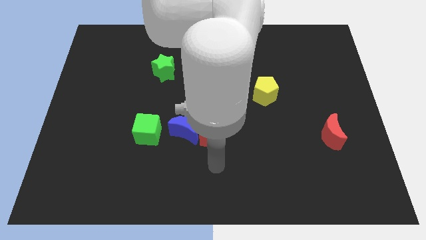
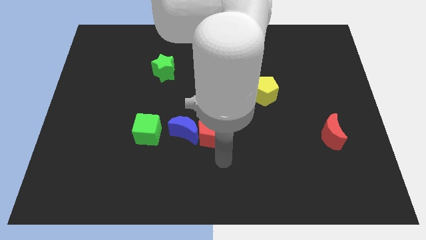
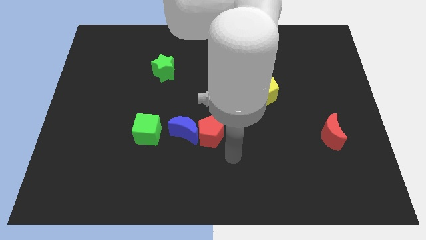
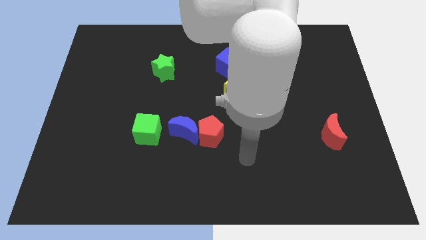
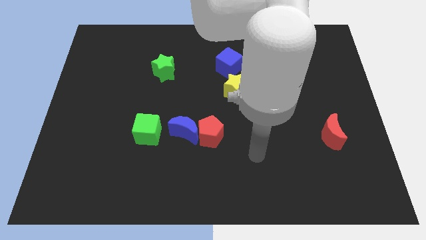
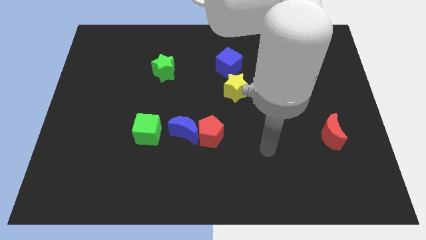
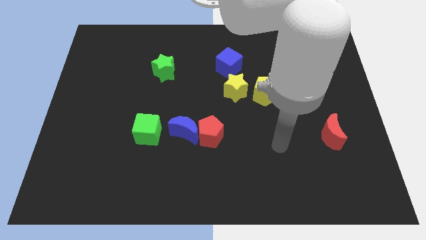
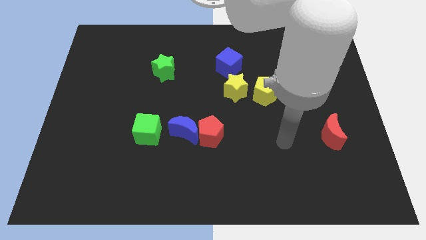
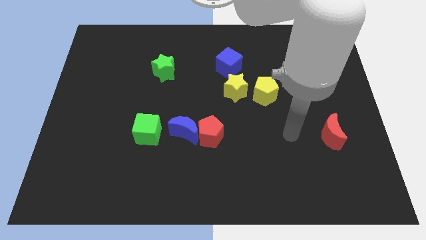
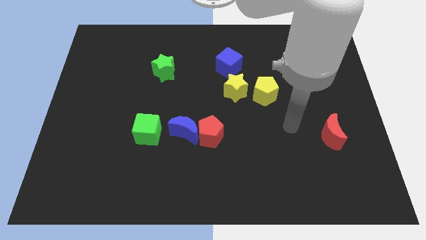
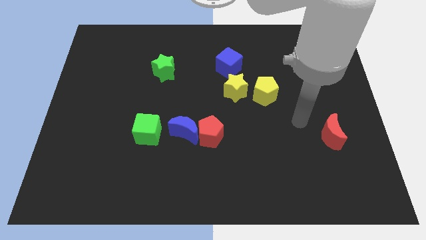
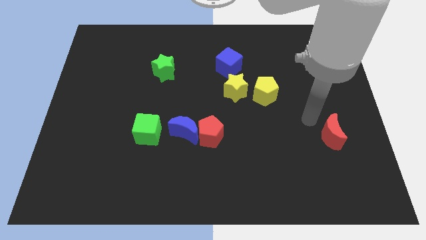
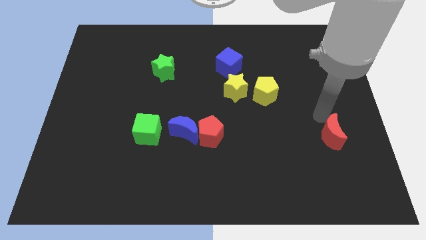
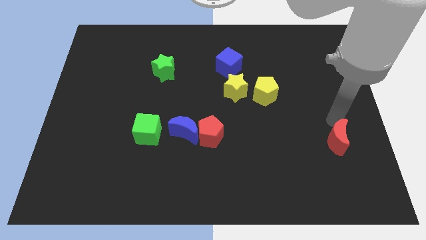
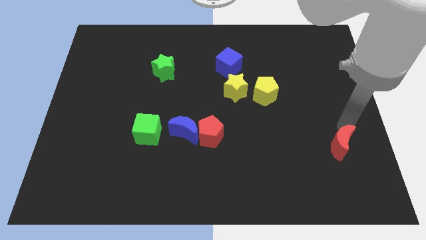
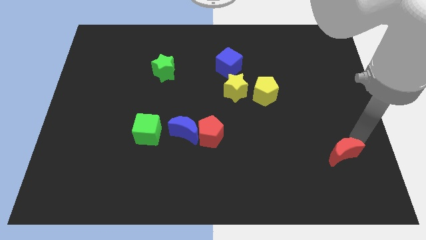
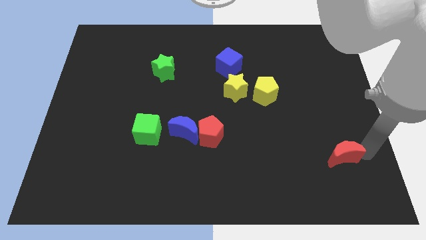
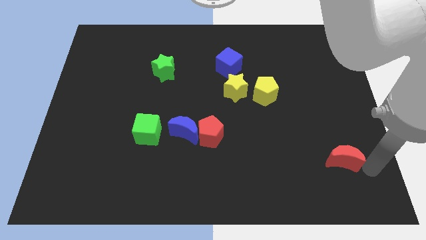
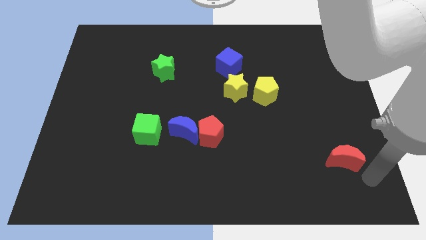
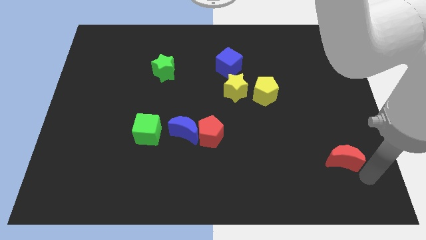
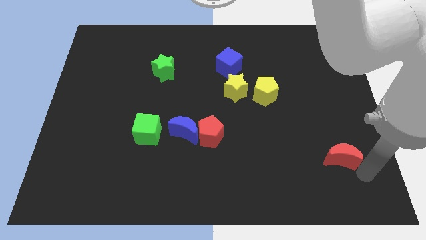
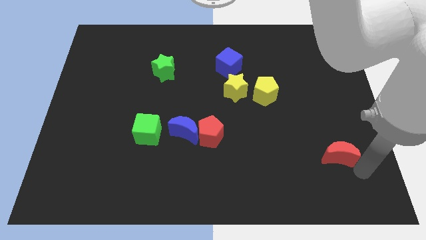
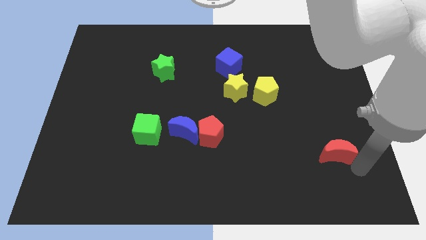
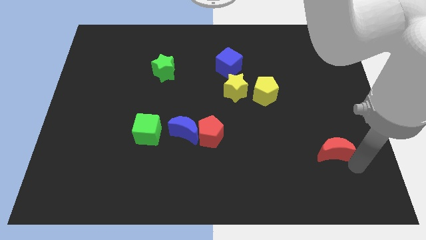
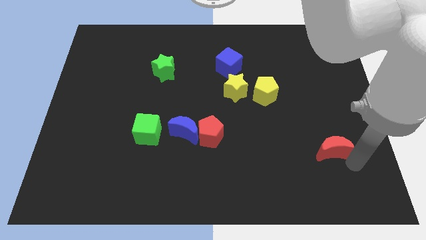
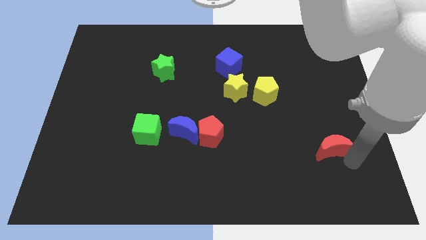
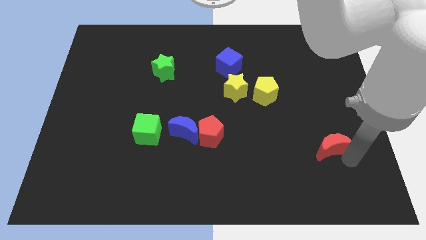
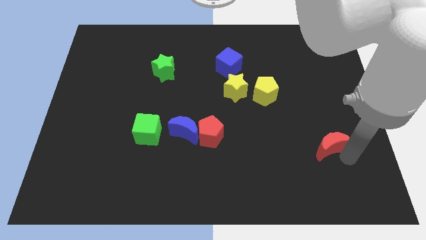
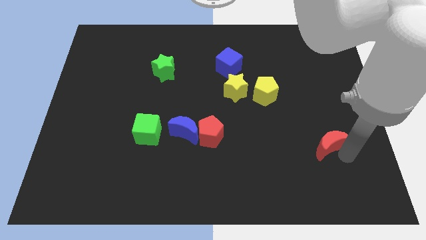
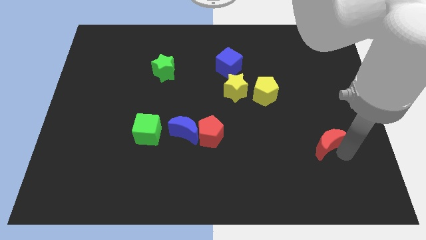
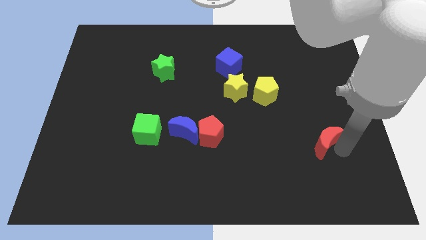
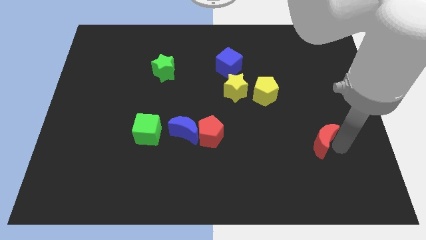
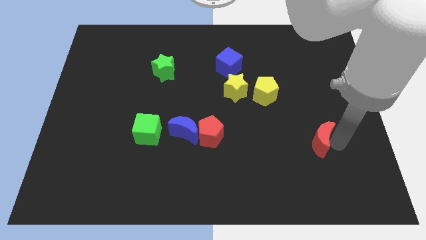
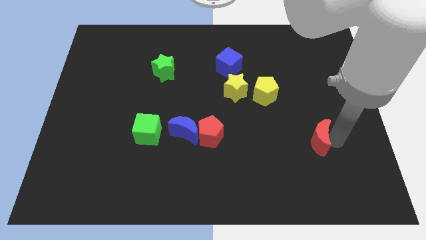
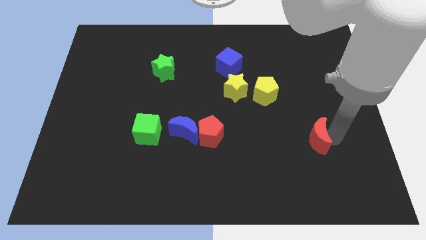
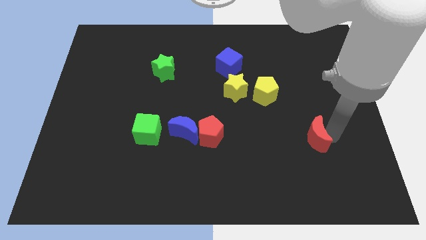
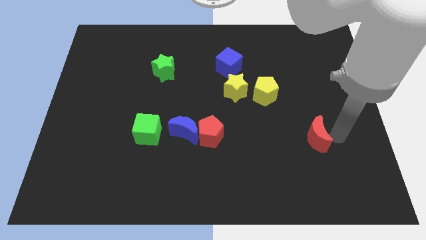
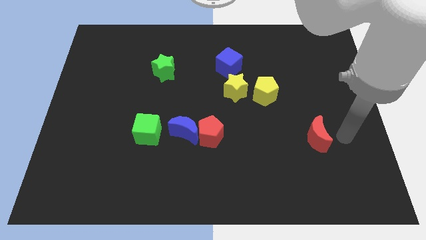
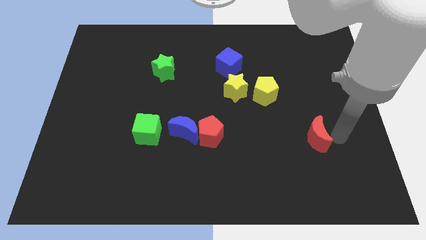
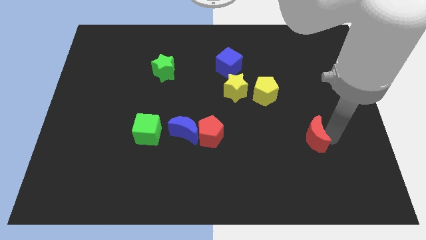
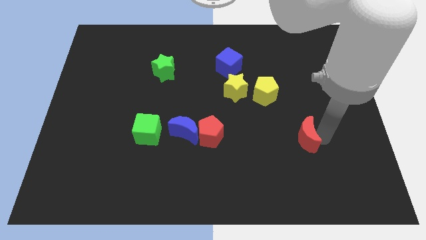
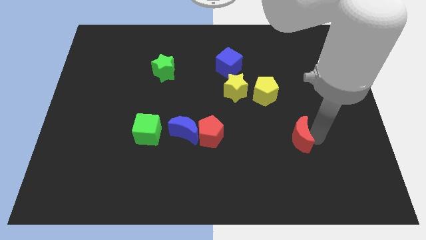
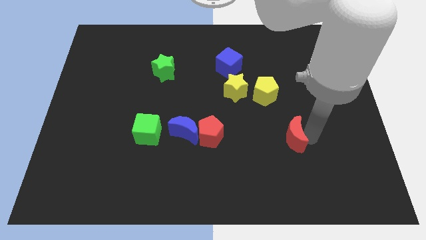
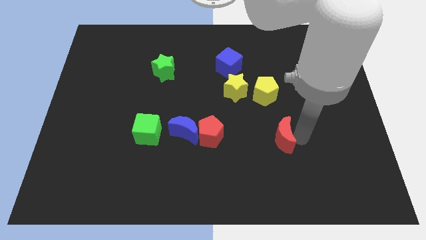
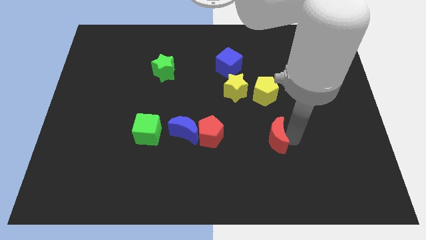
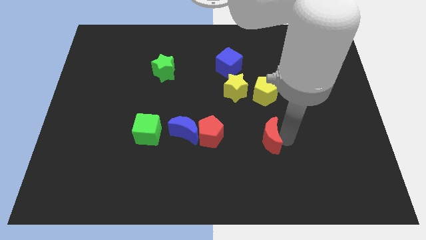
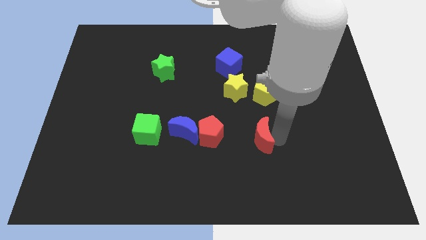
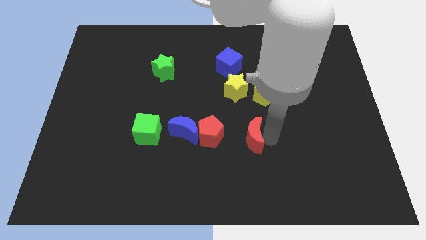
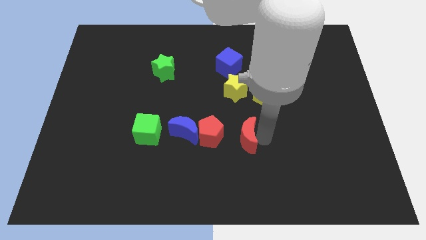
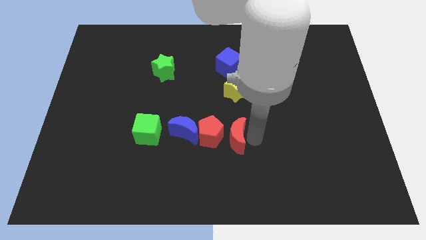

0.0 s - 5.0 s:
push the red moon towards the red pentagon

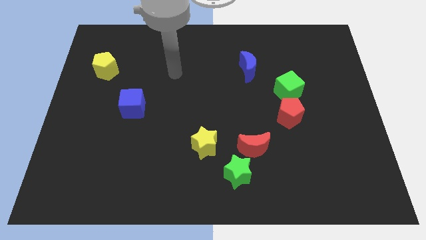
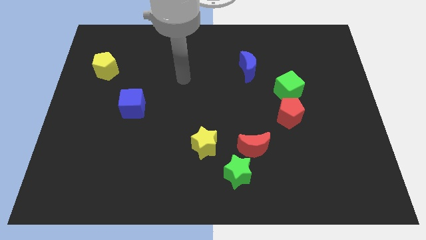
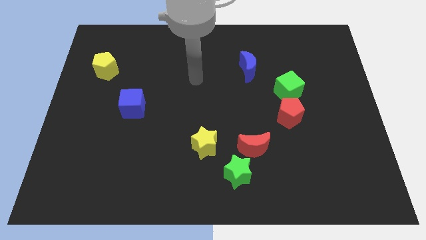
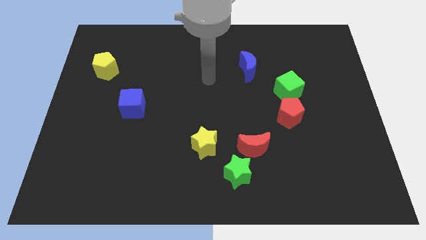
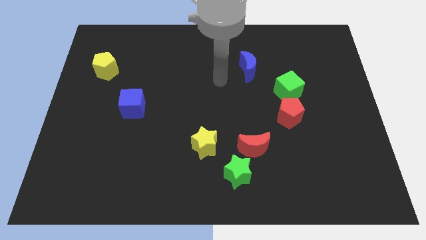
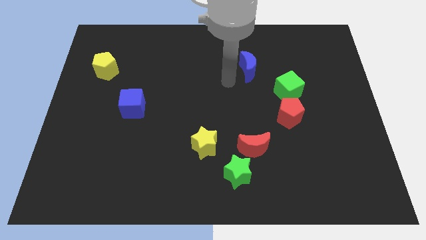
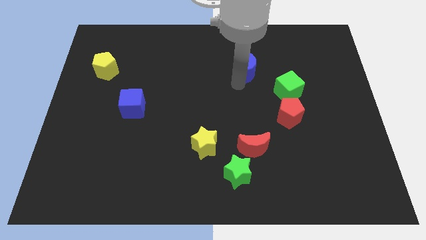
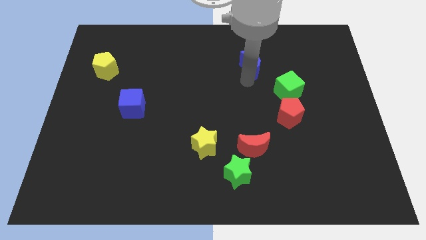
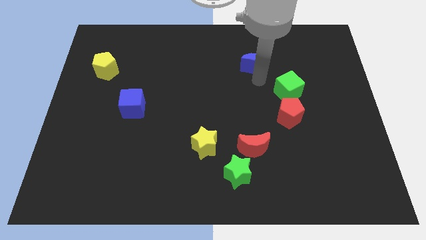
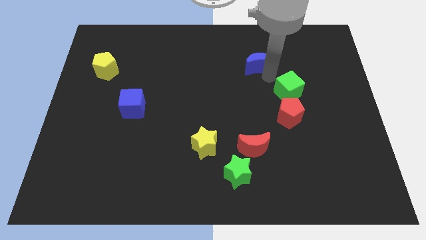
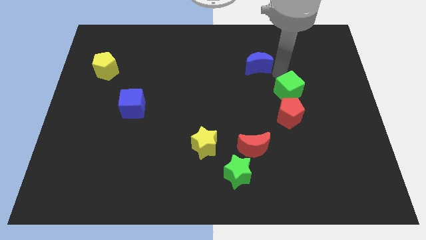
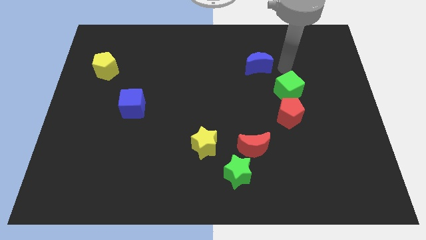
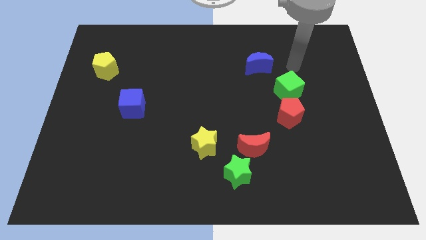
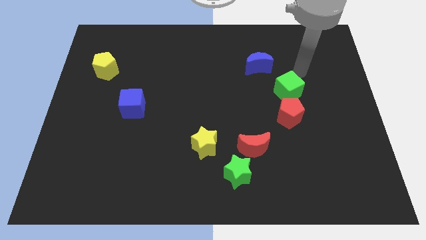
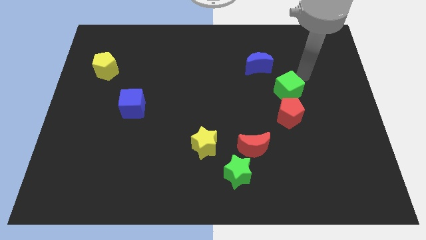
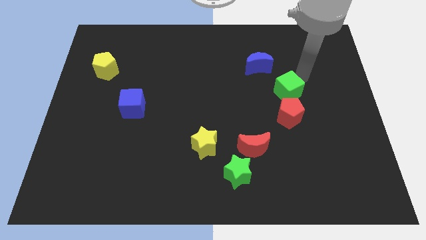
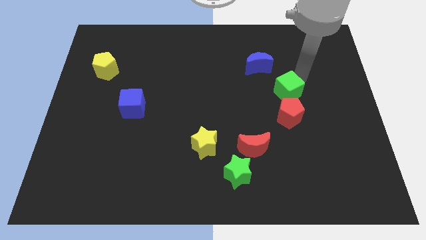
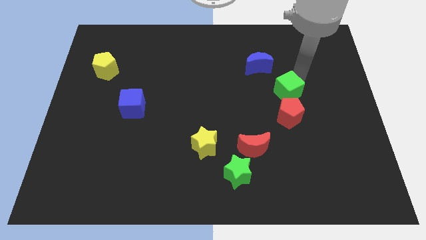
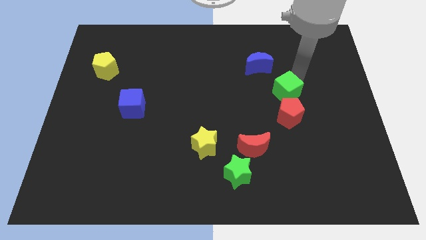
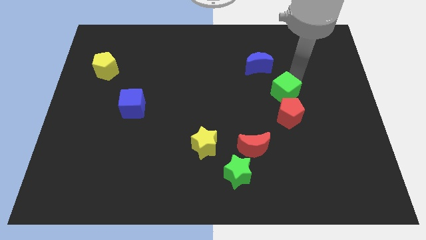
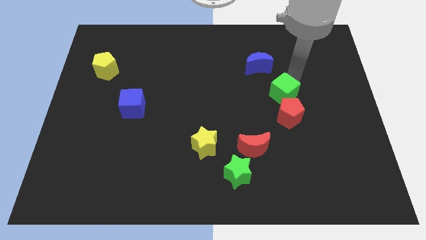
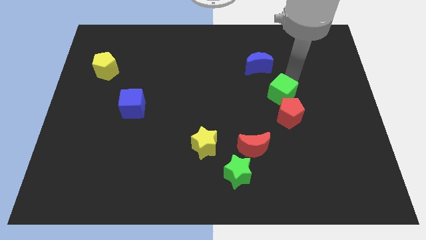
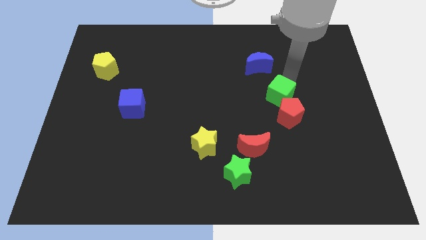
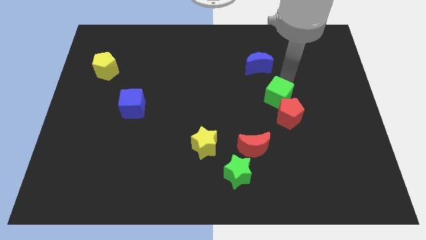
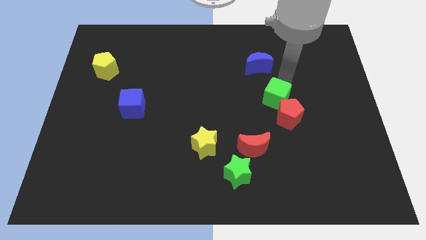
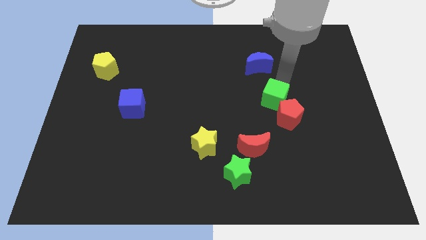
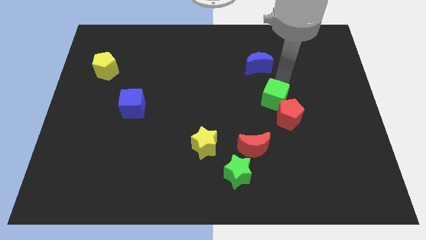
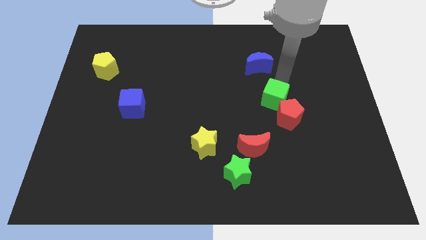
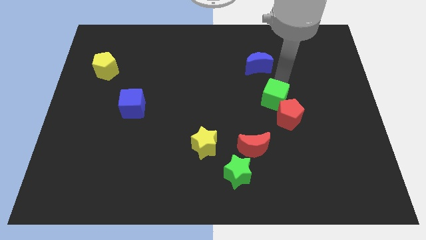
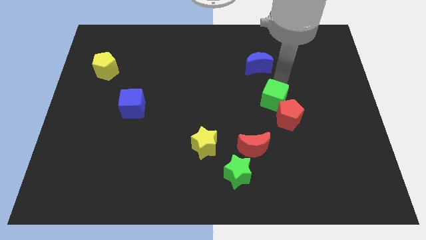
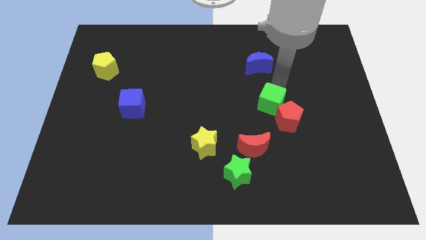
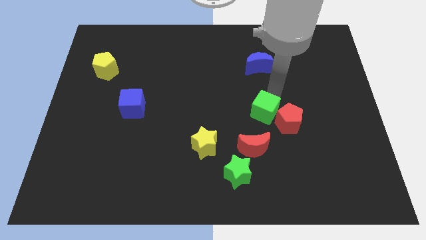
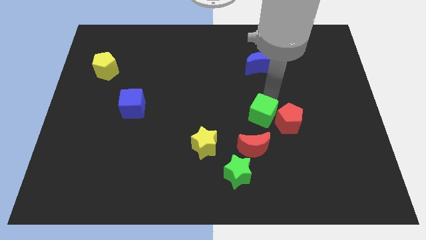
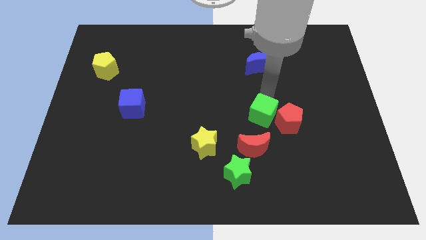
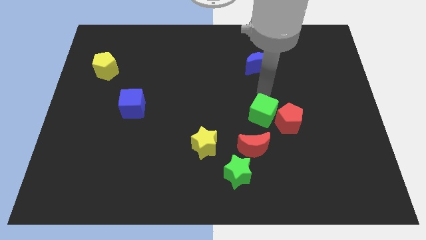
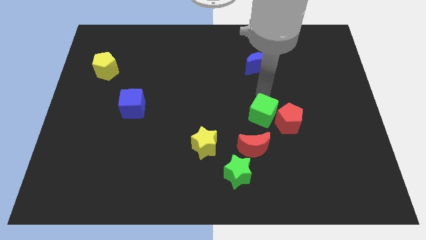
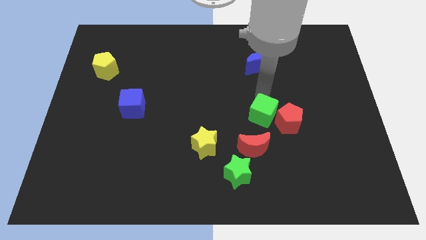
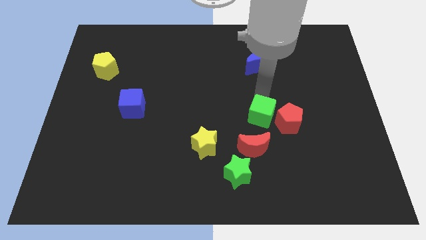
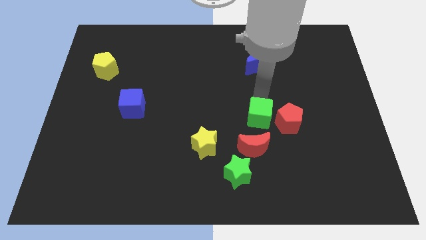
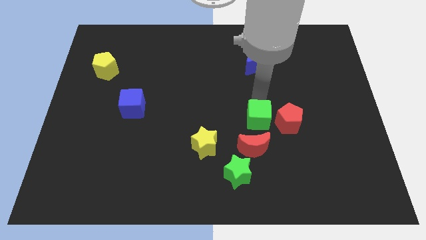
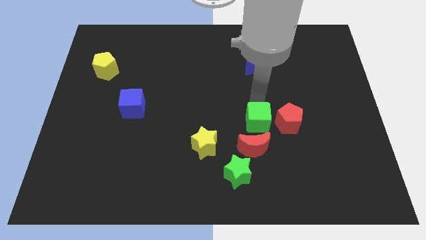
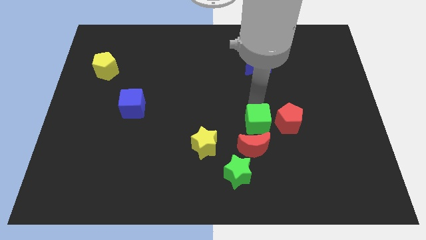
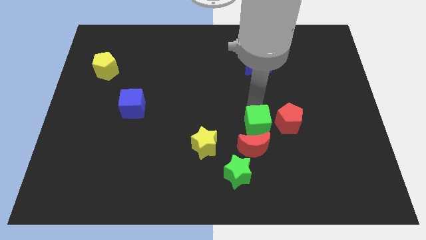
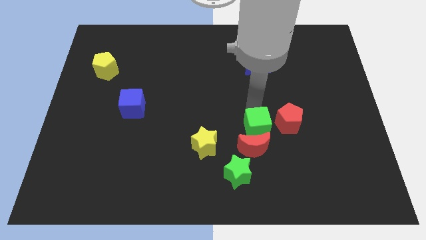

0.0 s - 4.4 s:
slide the green cube towards the red moon
